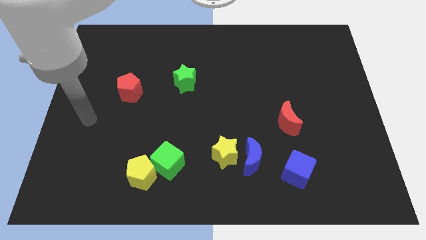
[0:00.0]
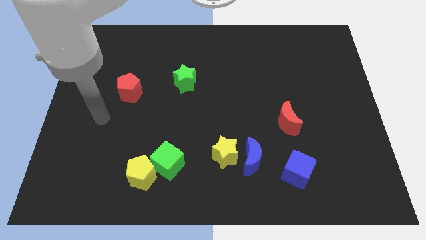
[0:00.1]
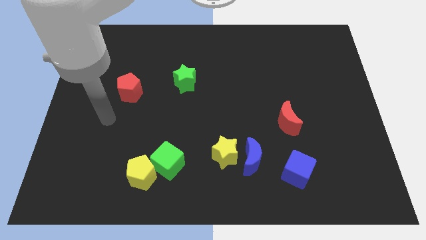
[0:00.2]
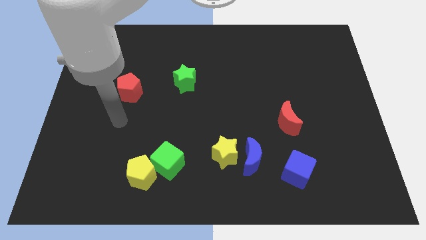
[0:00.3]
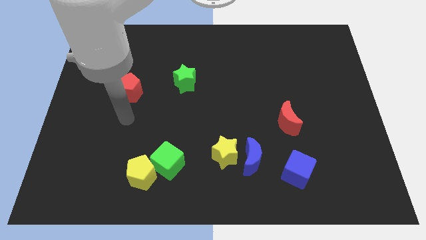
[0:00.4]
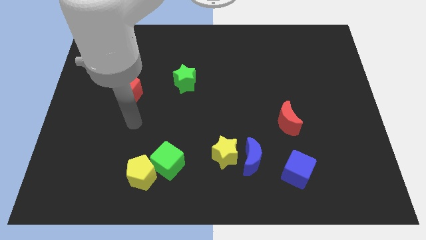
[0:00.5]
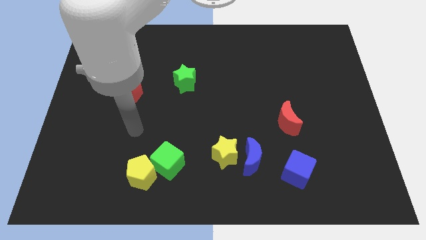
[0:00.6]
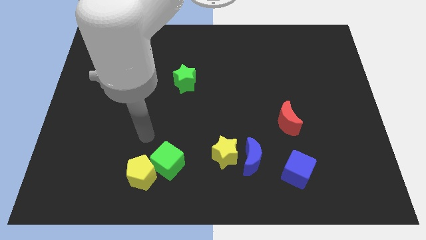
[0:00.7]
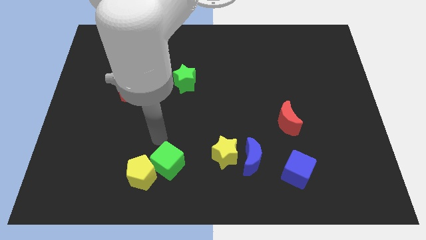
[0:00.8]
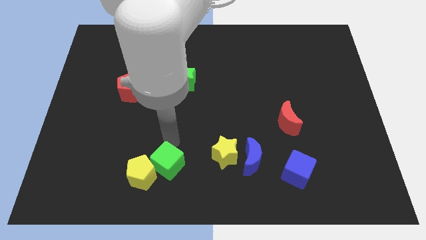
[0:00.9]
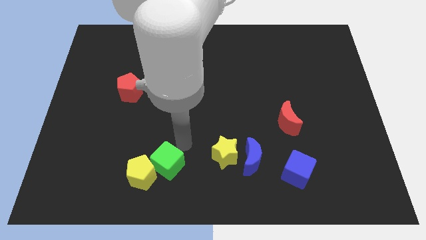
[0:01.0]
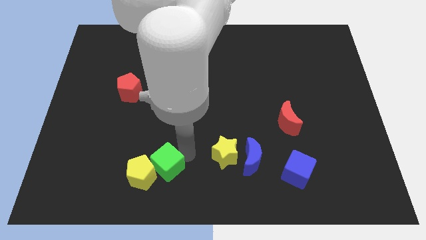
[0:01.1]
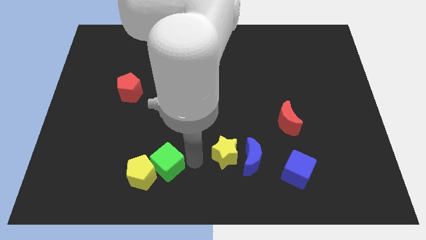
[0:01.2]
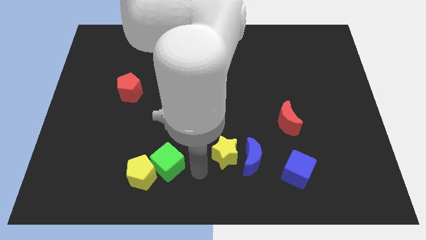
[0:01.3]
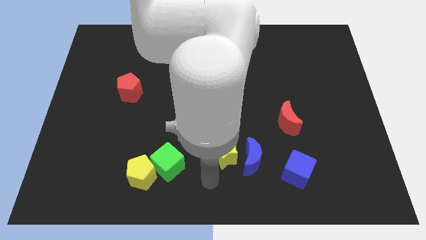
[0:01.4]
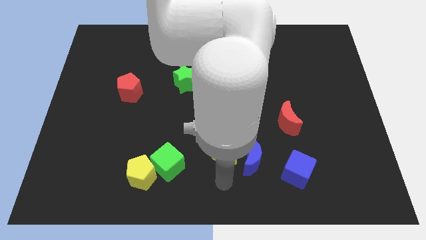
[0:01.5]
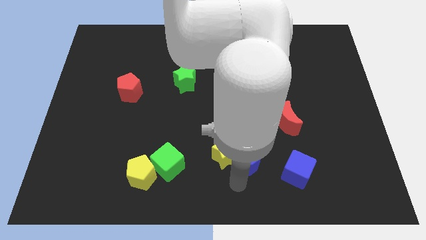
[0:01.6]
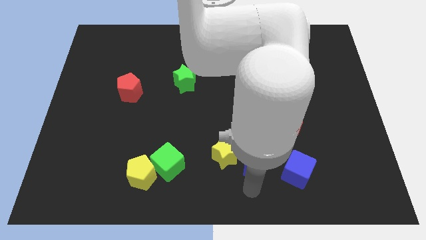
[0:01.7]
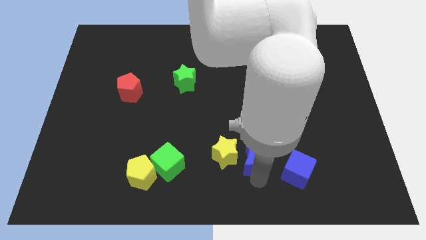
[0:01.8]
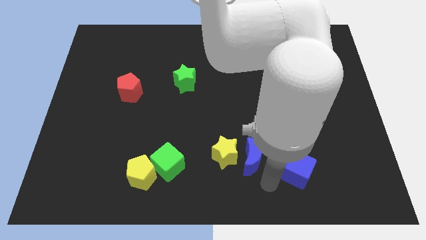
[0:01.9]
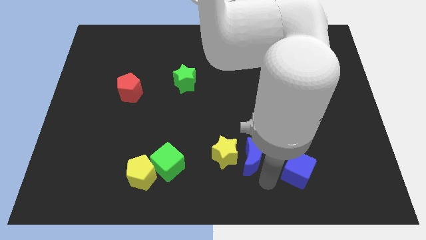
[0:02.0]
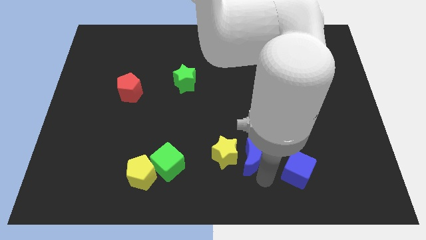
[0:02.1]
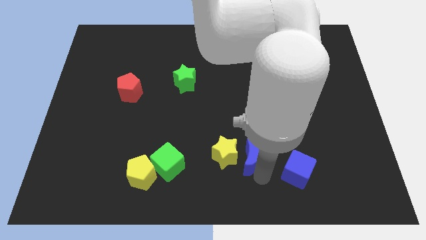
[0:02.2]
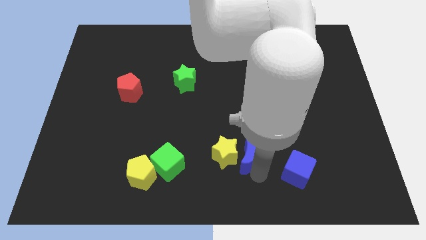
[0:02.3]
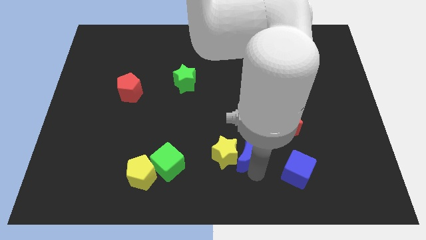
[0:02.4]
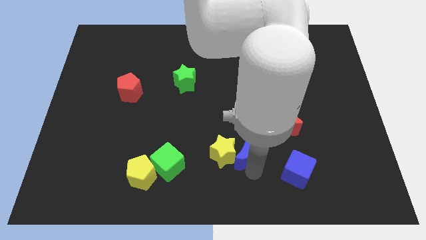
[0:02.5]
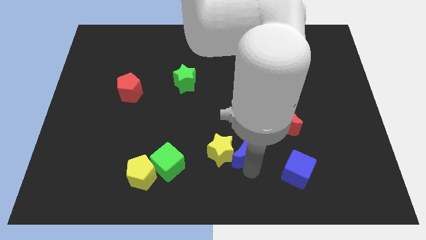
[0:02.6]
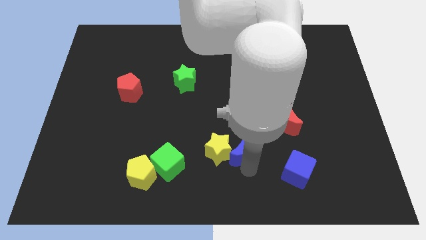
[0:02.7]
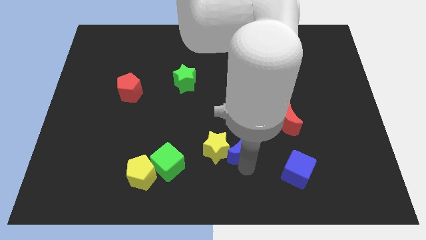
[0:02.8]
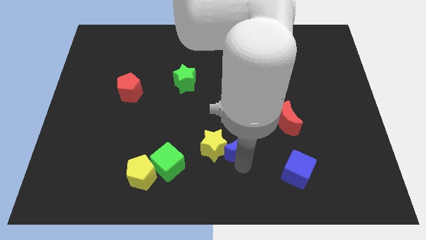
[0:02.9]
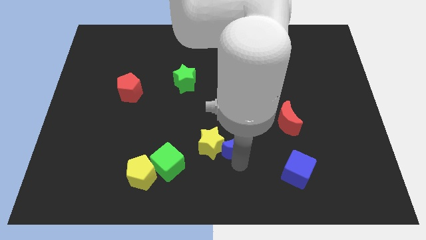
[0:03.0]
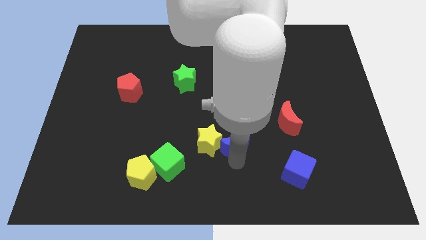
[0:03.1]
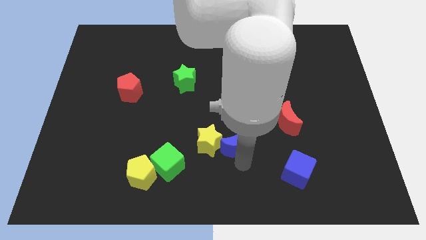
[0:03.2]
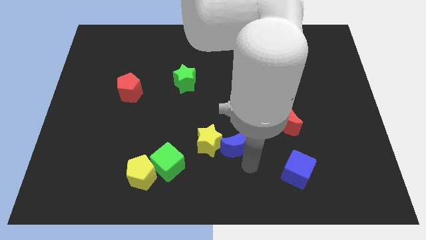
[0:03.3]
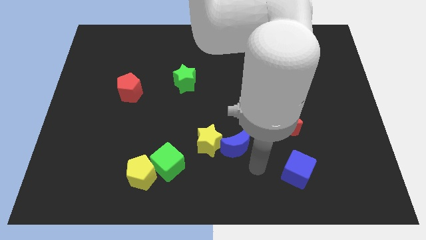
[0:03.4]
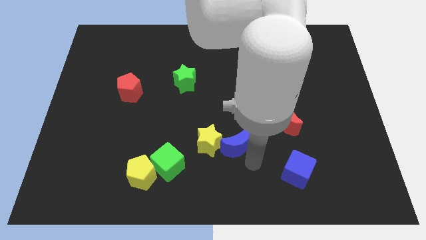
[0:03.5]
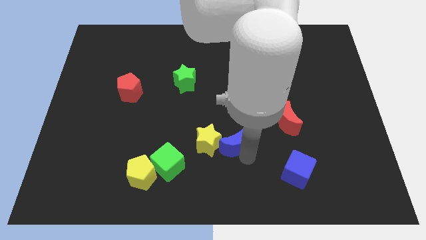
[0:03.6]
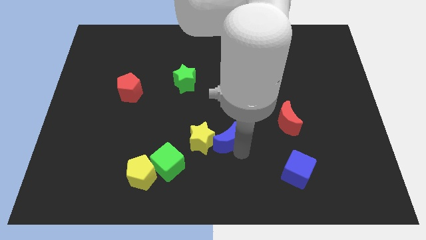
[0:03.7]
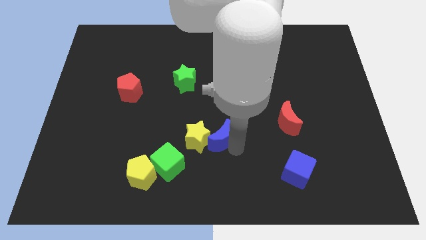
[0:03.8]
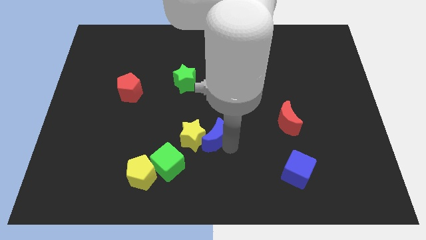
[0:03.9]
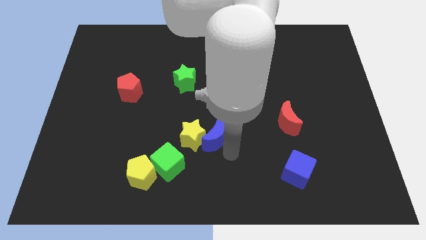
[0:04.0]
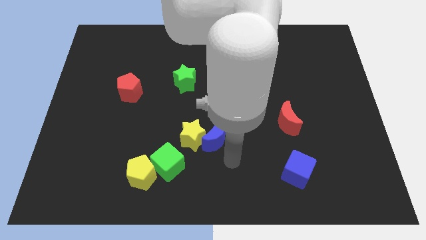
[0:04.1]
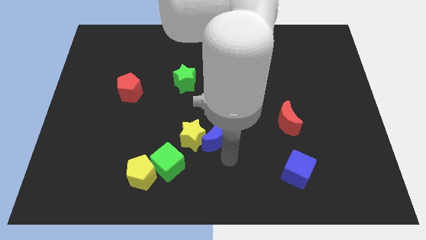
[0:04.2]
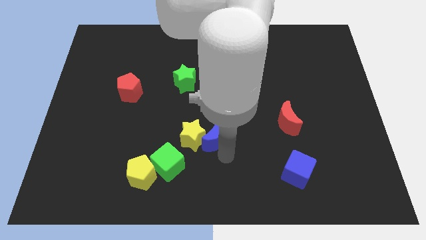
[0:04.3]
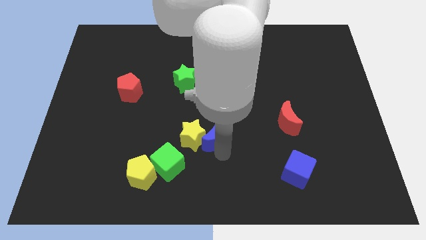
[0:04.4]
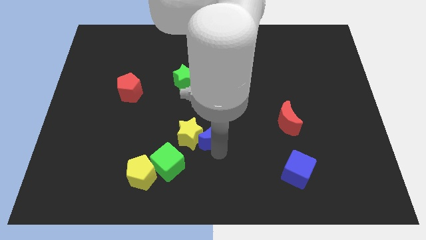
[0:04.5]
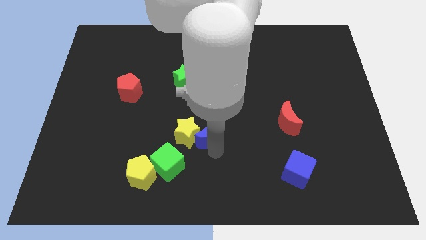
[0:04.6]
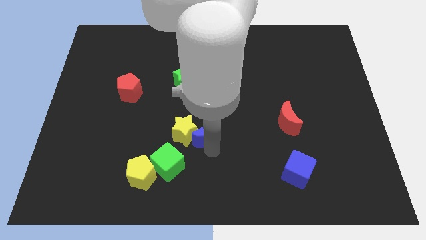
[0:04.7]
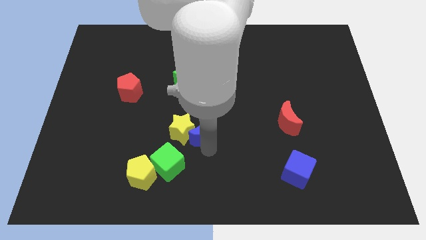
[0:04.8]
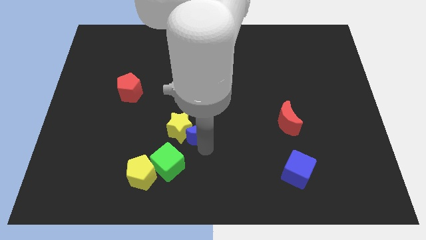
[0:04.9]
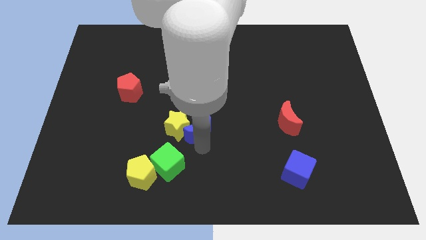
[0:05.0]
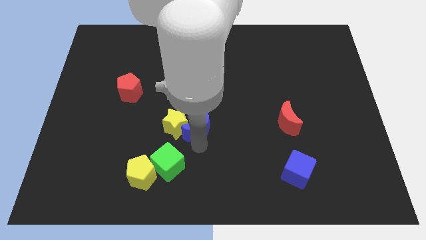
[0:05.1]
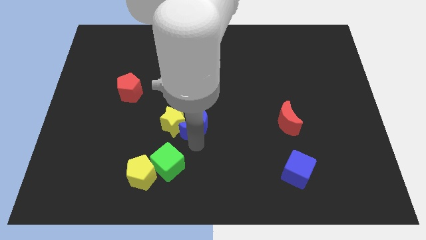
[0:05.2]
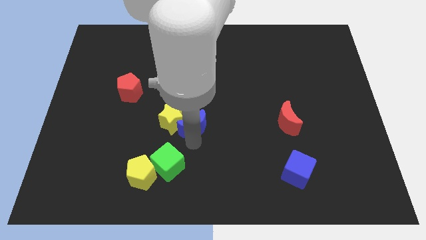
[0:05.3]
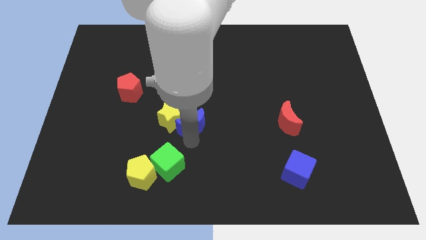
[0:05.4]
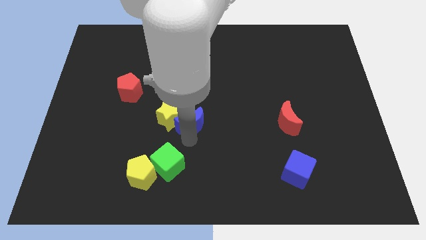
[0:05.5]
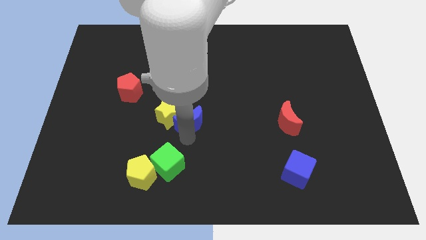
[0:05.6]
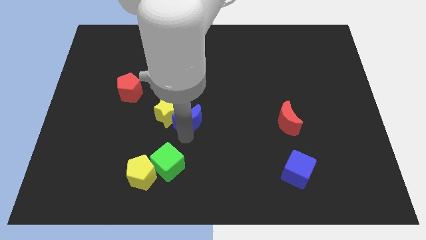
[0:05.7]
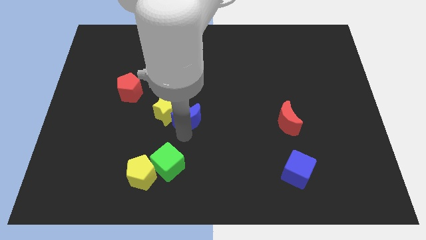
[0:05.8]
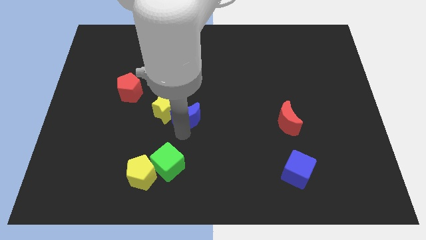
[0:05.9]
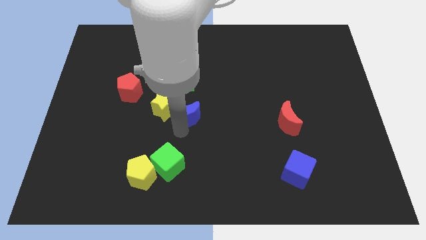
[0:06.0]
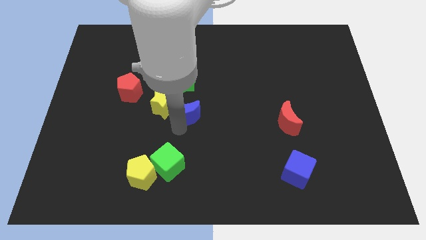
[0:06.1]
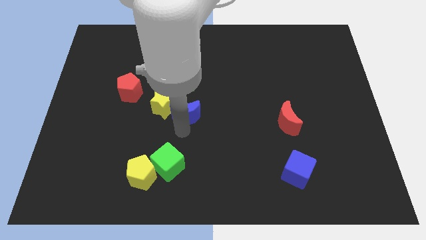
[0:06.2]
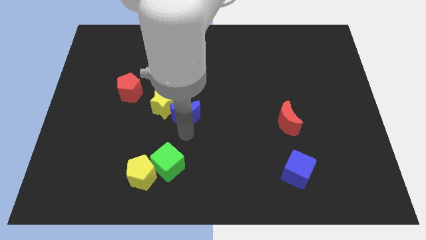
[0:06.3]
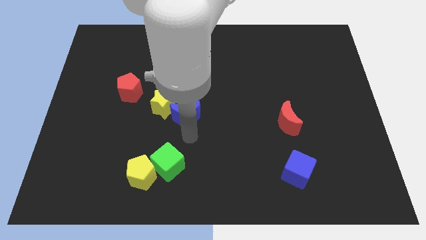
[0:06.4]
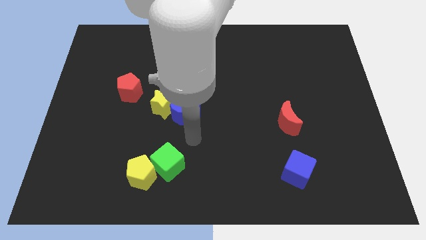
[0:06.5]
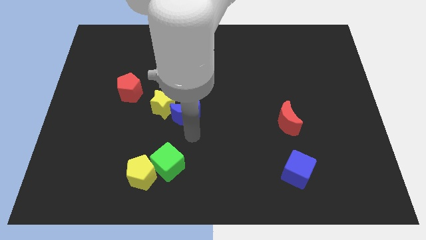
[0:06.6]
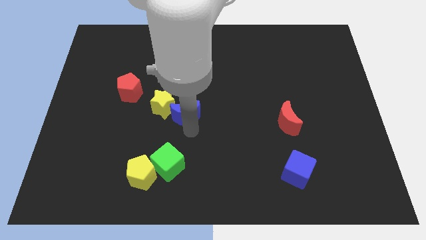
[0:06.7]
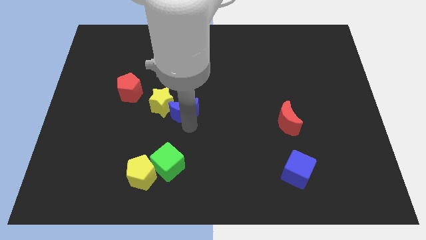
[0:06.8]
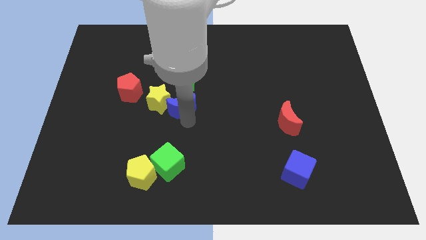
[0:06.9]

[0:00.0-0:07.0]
move the blue moon up and left

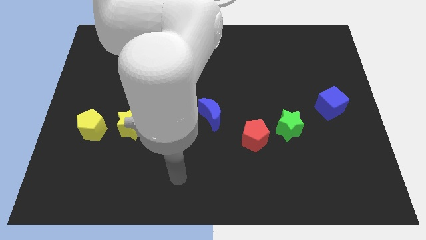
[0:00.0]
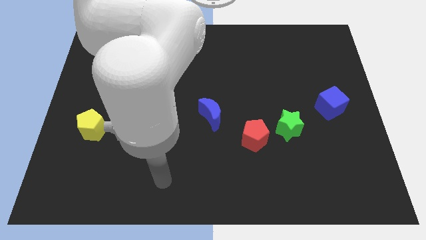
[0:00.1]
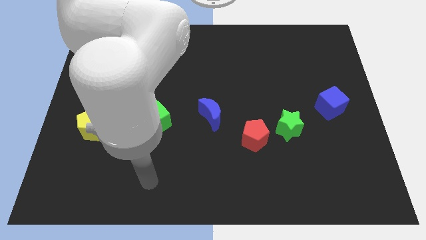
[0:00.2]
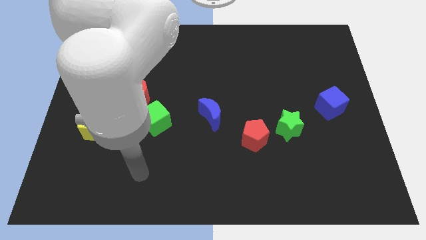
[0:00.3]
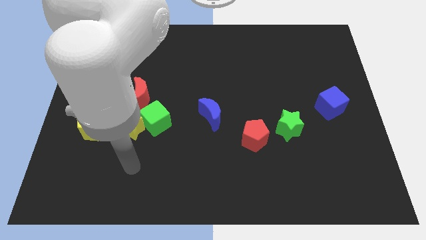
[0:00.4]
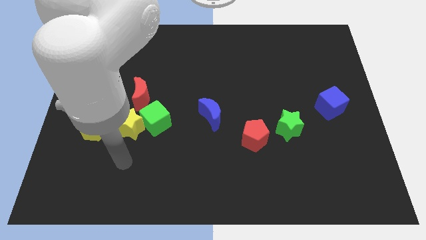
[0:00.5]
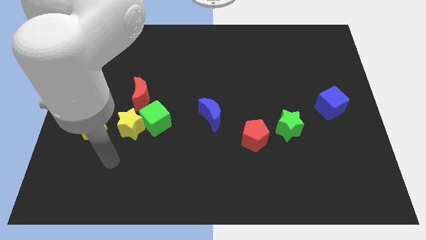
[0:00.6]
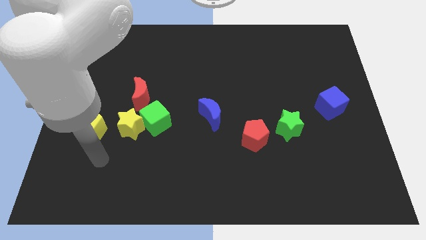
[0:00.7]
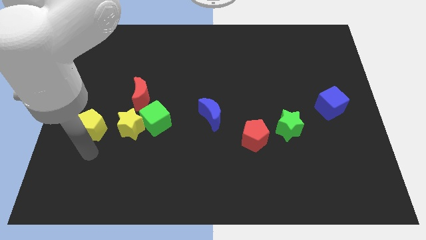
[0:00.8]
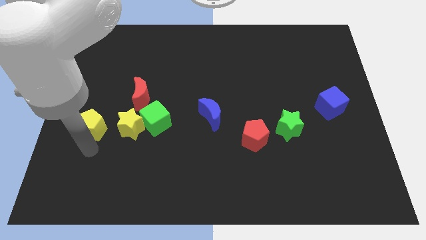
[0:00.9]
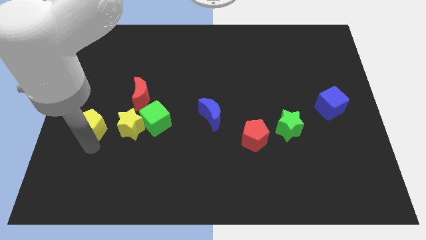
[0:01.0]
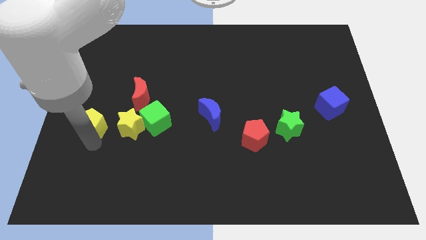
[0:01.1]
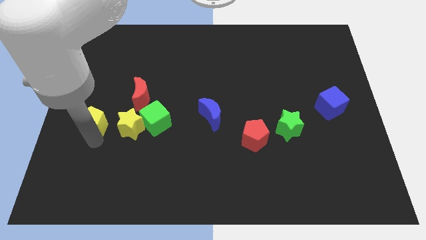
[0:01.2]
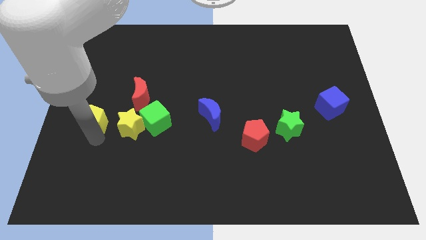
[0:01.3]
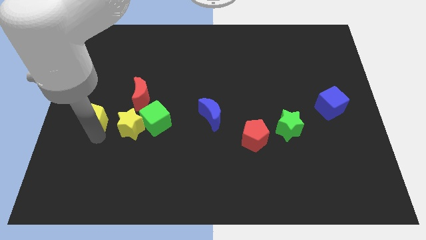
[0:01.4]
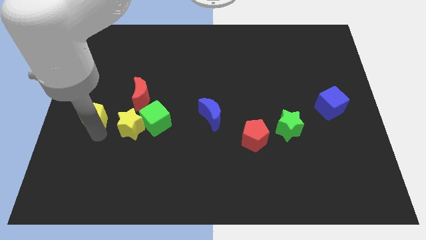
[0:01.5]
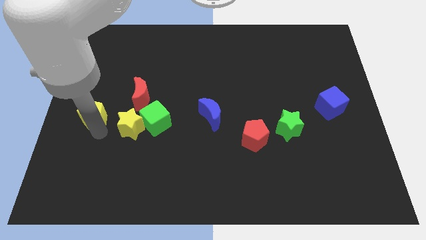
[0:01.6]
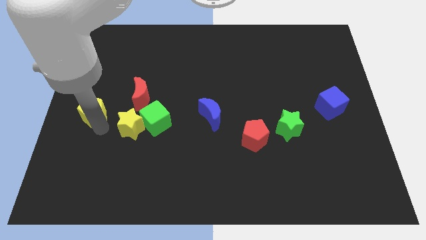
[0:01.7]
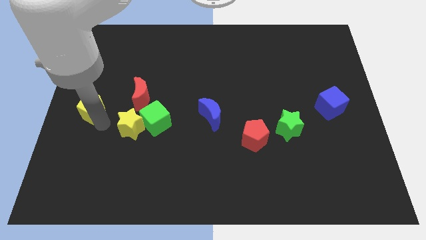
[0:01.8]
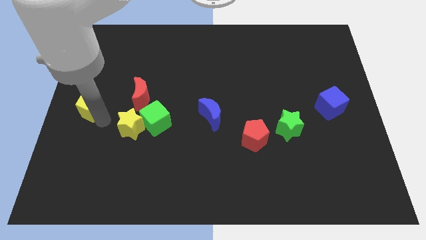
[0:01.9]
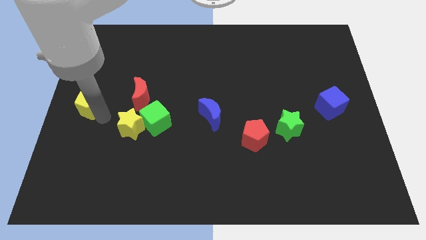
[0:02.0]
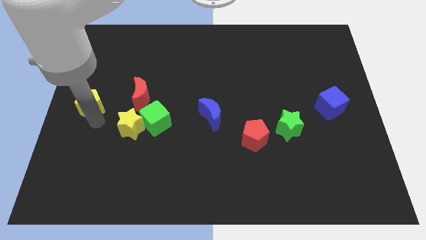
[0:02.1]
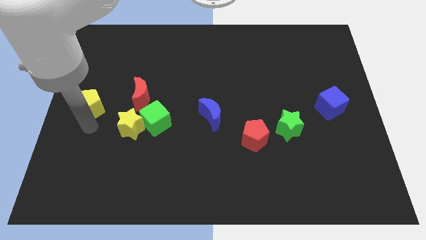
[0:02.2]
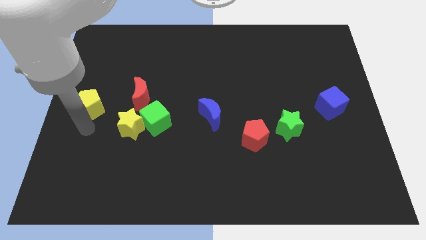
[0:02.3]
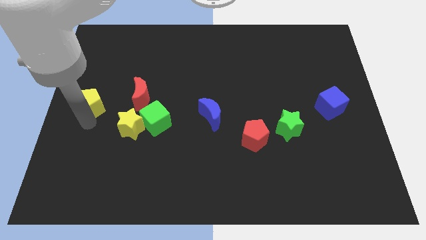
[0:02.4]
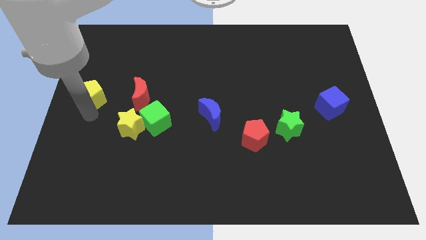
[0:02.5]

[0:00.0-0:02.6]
slightly push the yellow pentagon upwards
